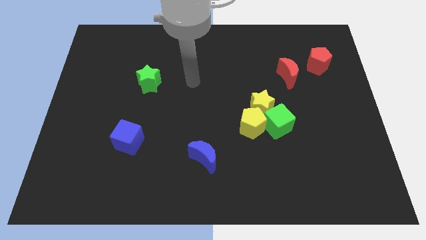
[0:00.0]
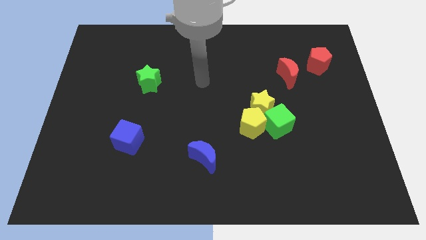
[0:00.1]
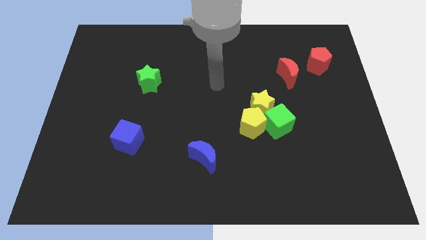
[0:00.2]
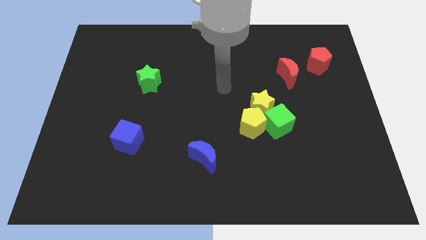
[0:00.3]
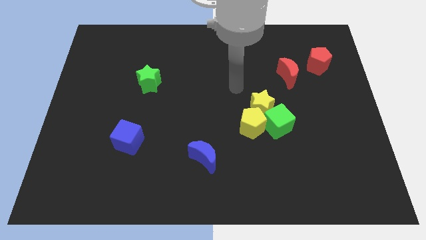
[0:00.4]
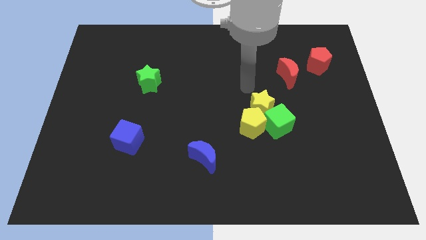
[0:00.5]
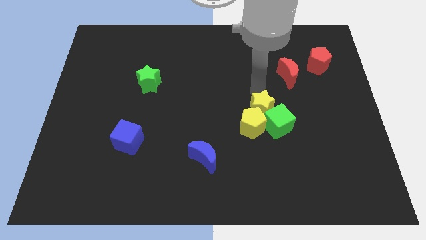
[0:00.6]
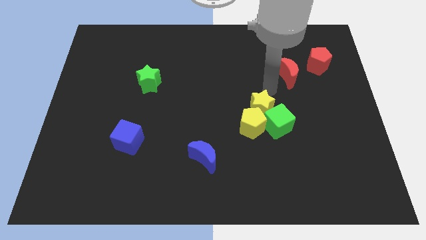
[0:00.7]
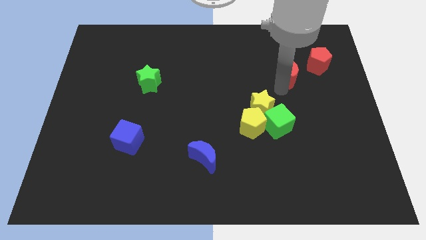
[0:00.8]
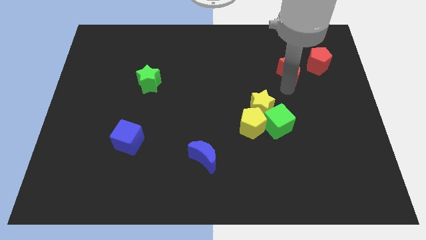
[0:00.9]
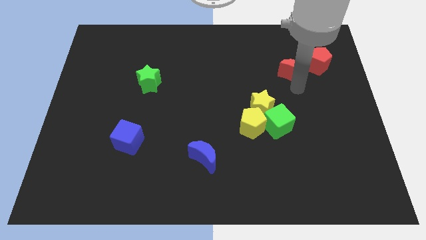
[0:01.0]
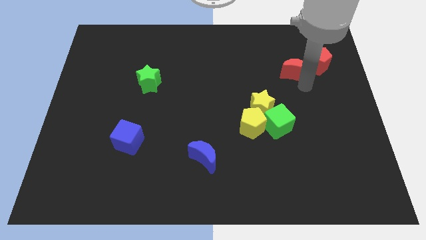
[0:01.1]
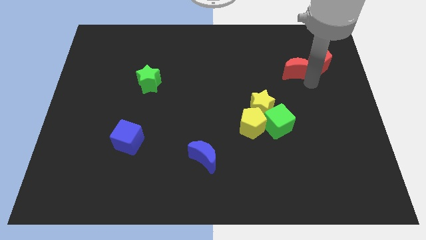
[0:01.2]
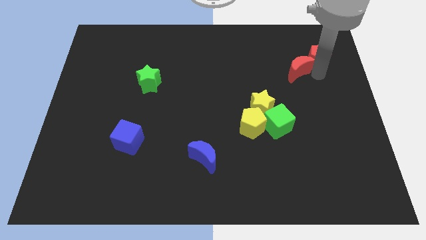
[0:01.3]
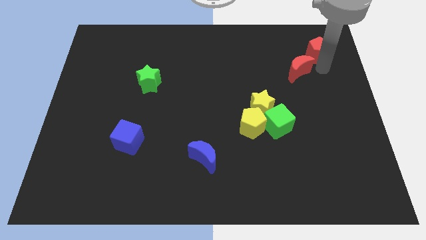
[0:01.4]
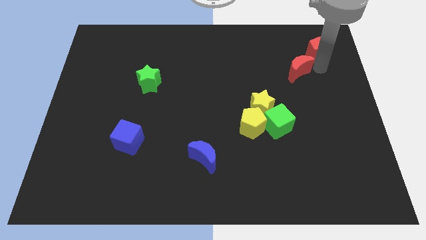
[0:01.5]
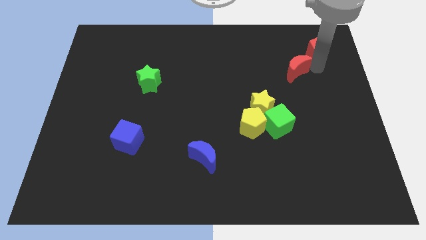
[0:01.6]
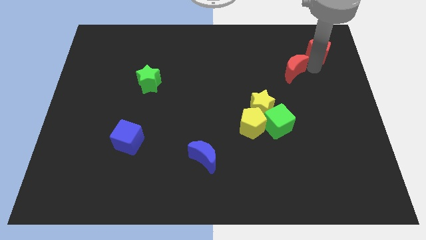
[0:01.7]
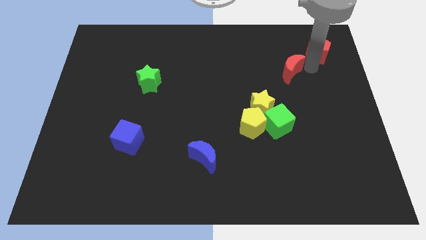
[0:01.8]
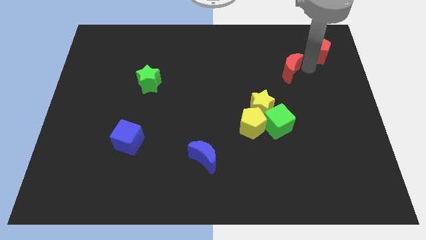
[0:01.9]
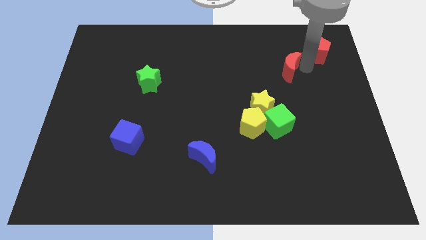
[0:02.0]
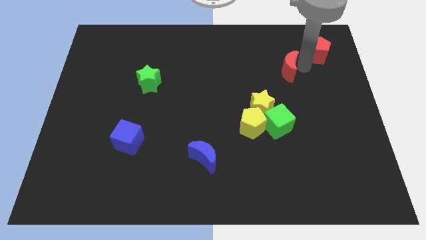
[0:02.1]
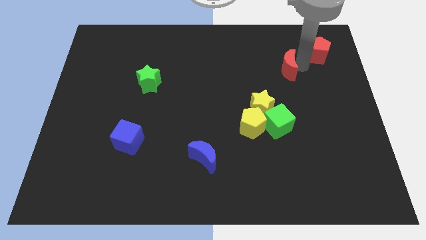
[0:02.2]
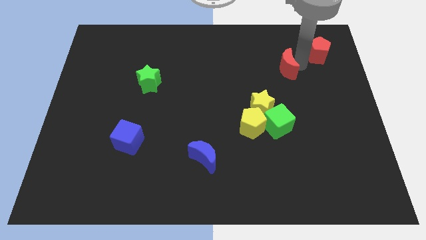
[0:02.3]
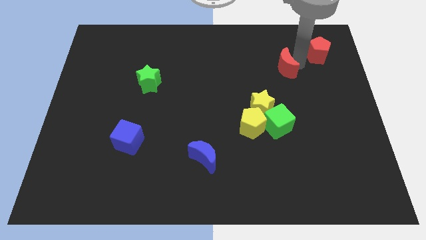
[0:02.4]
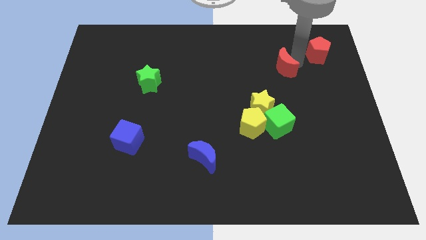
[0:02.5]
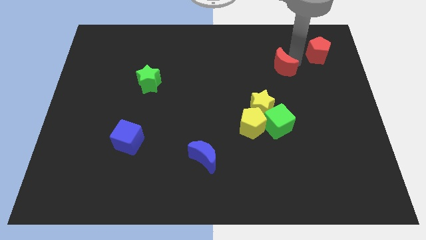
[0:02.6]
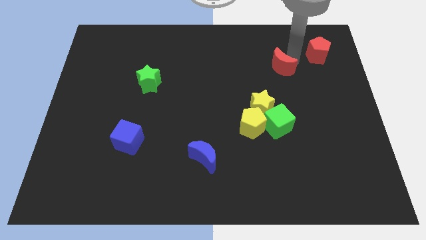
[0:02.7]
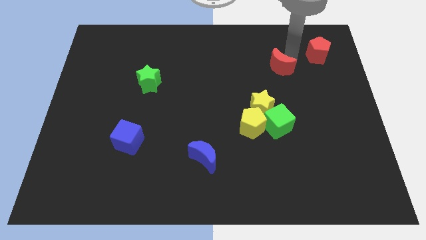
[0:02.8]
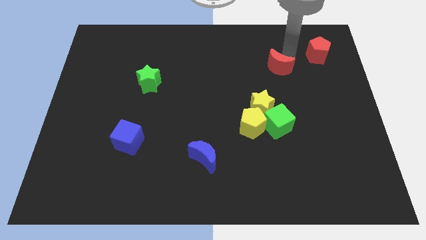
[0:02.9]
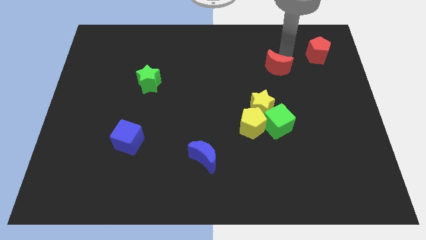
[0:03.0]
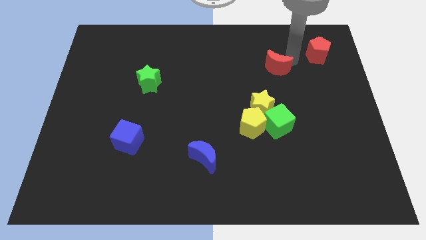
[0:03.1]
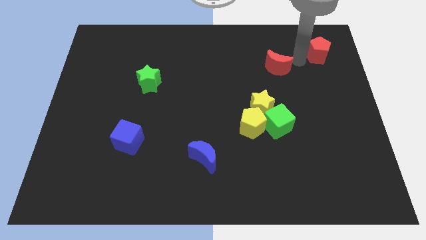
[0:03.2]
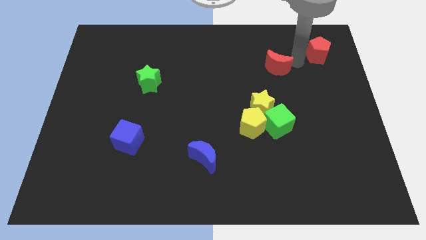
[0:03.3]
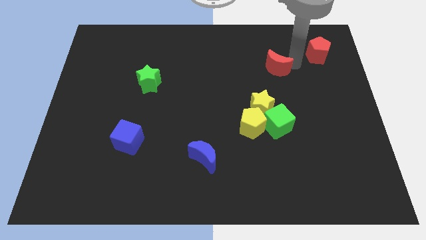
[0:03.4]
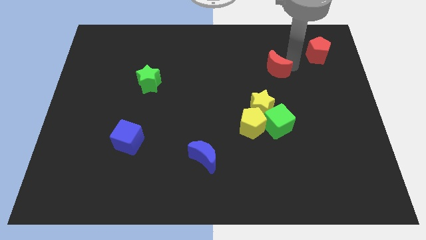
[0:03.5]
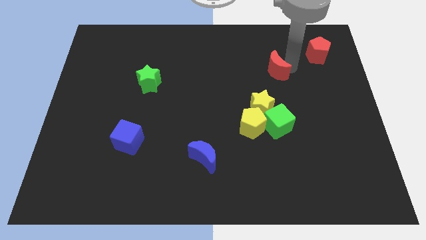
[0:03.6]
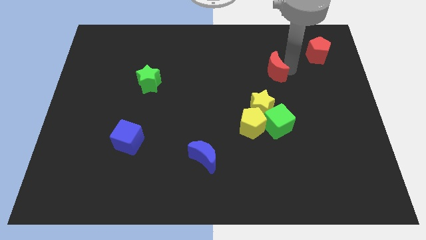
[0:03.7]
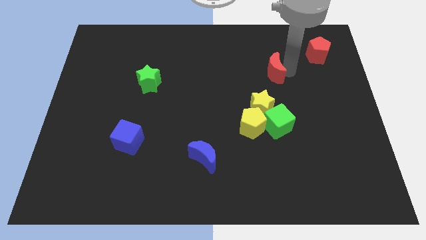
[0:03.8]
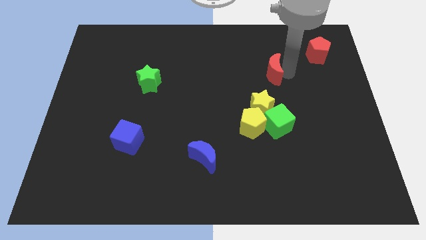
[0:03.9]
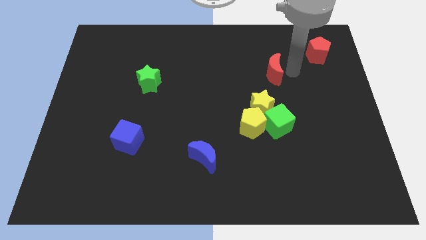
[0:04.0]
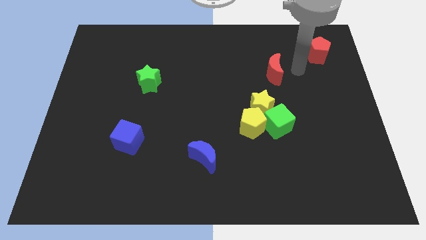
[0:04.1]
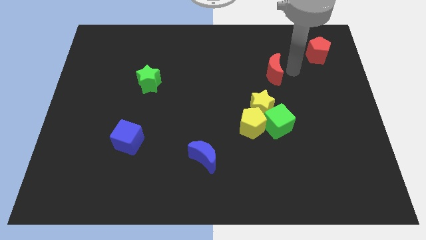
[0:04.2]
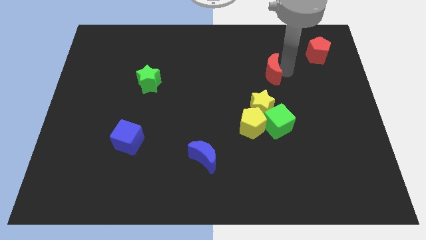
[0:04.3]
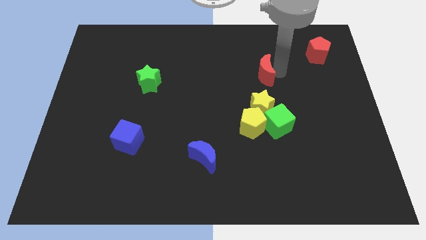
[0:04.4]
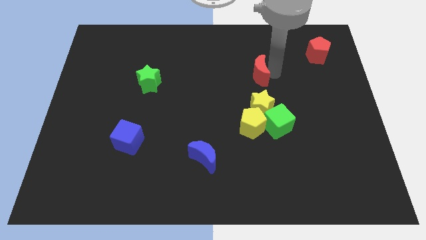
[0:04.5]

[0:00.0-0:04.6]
slightly slide the red moon to the left

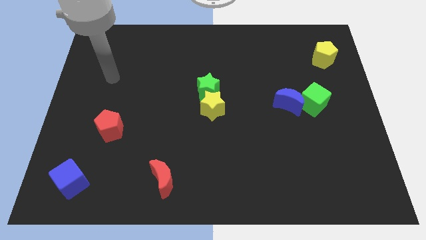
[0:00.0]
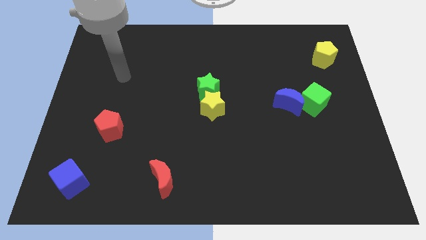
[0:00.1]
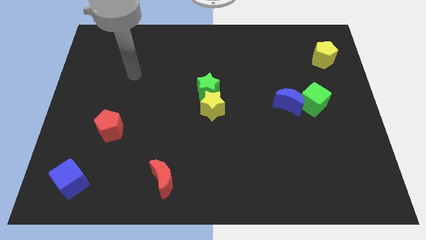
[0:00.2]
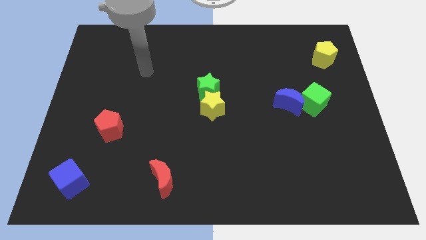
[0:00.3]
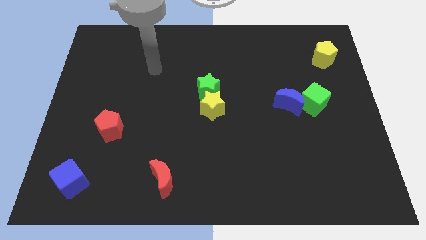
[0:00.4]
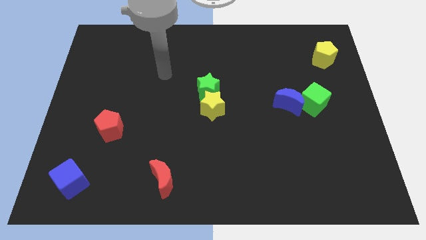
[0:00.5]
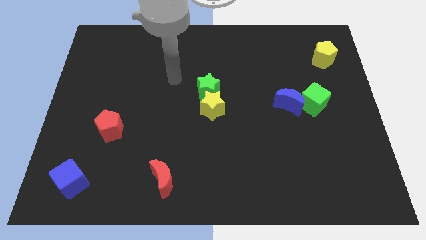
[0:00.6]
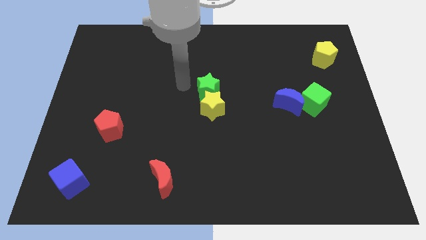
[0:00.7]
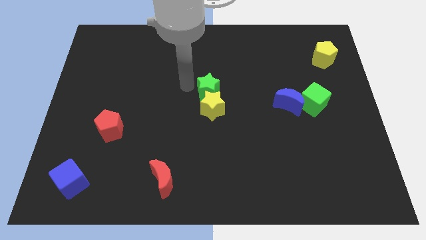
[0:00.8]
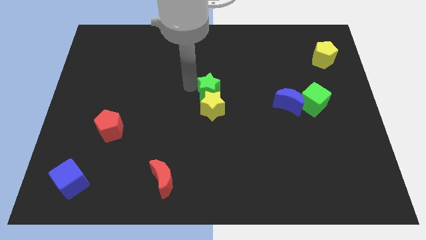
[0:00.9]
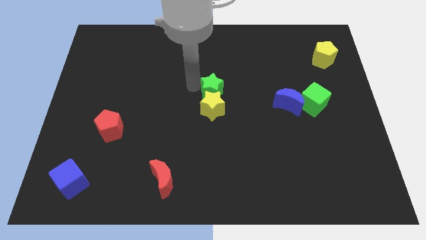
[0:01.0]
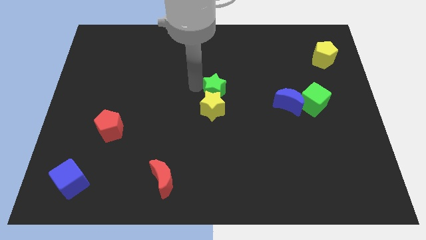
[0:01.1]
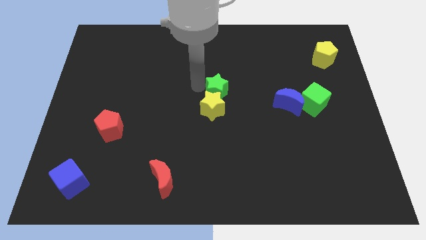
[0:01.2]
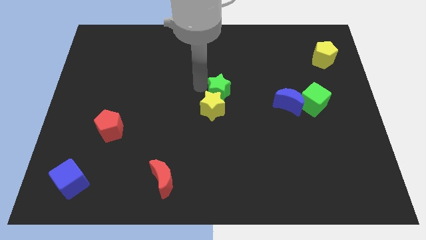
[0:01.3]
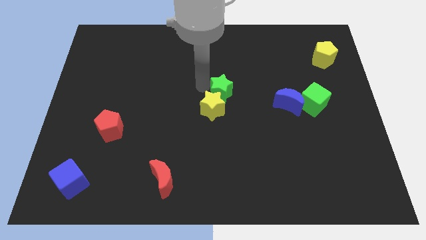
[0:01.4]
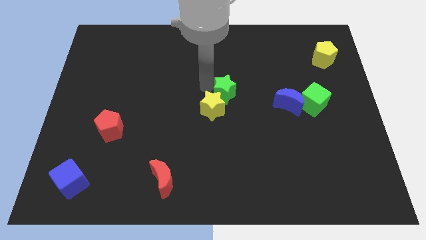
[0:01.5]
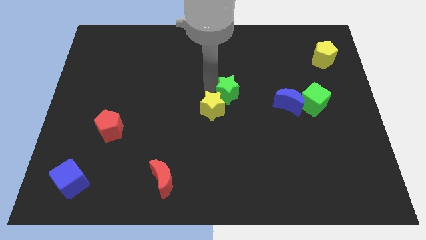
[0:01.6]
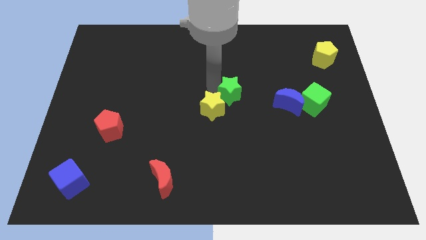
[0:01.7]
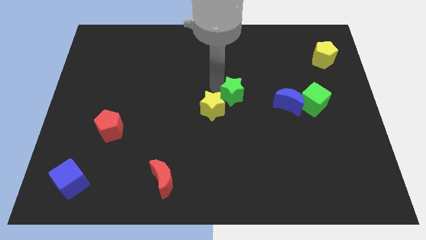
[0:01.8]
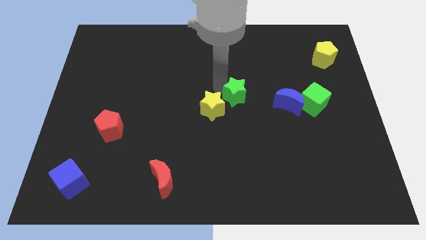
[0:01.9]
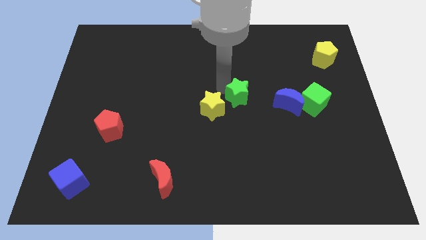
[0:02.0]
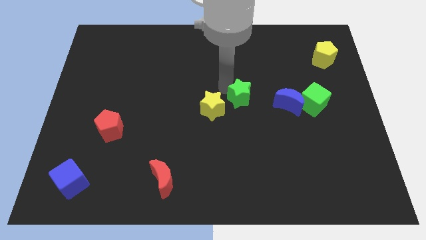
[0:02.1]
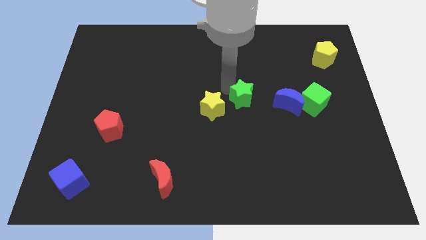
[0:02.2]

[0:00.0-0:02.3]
slightly slide the green star diagonally downwards and right

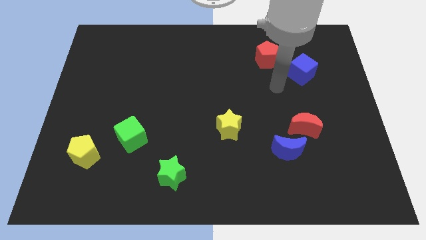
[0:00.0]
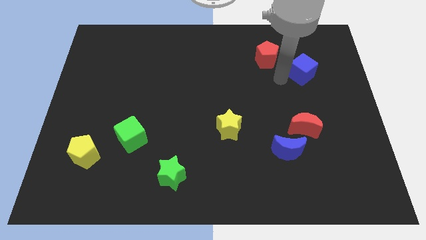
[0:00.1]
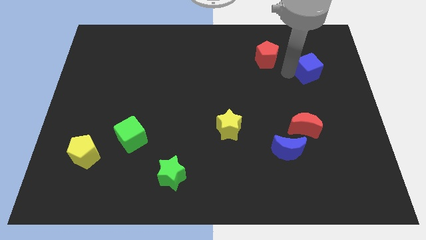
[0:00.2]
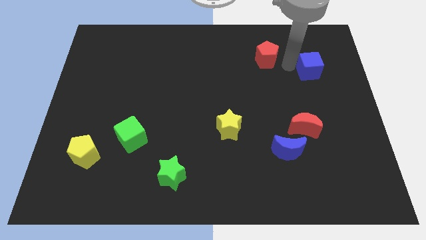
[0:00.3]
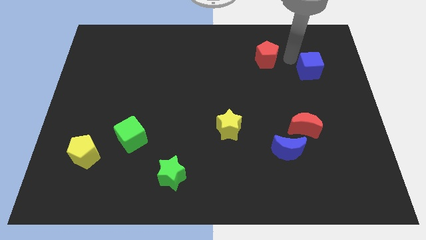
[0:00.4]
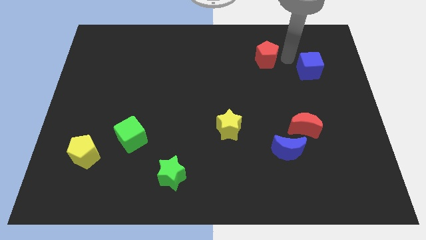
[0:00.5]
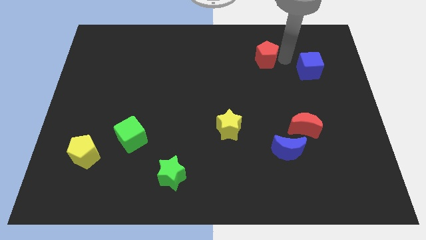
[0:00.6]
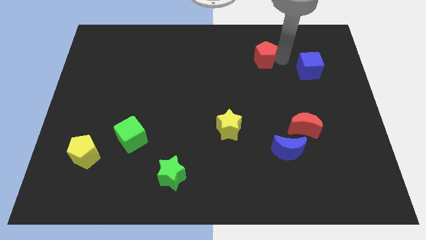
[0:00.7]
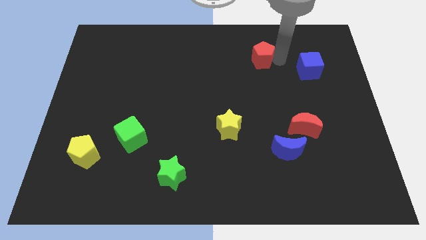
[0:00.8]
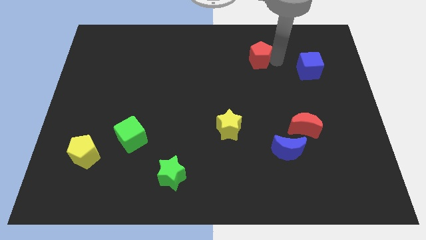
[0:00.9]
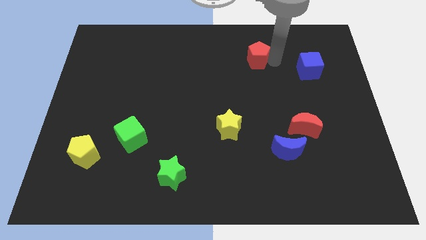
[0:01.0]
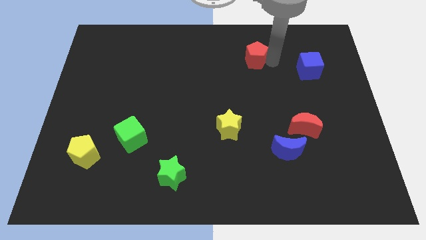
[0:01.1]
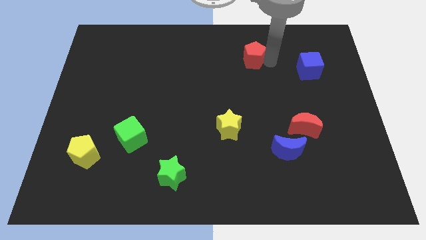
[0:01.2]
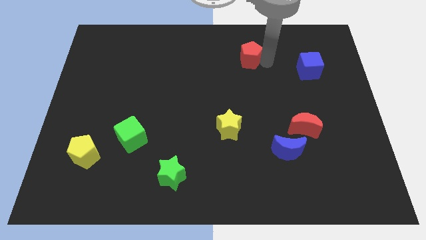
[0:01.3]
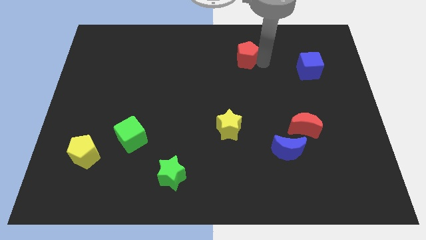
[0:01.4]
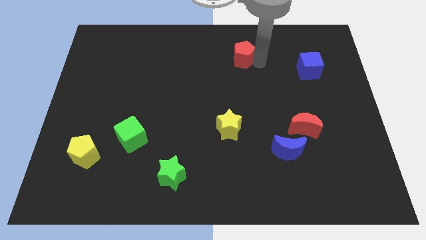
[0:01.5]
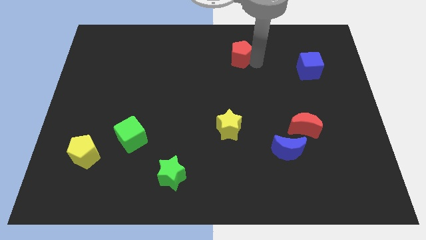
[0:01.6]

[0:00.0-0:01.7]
slightly push the red pentagon left
